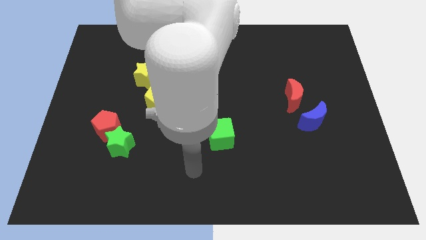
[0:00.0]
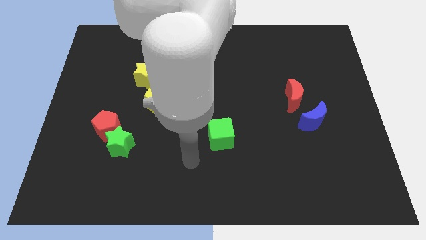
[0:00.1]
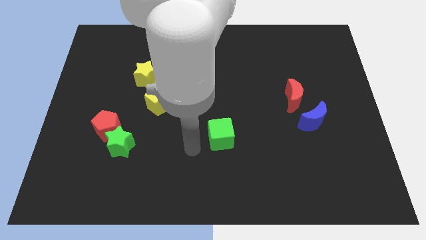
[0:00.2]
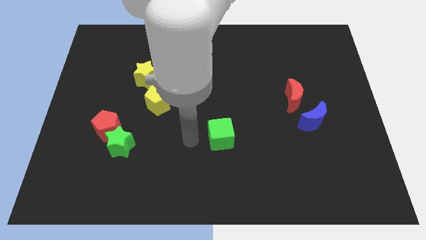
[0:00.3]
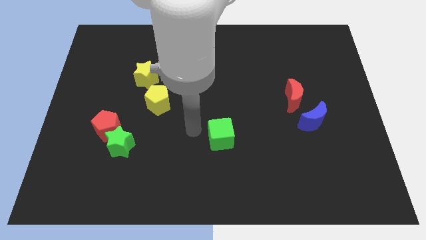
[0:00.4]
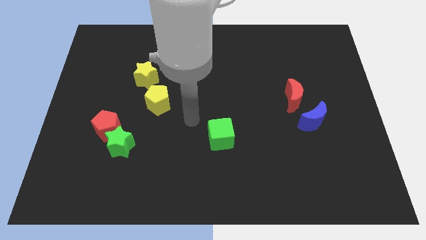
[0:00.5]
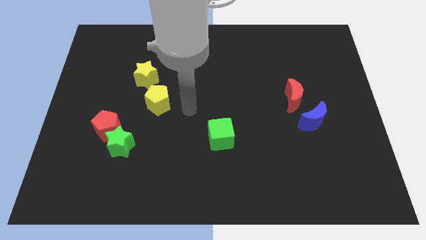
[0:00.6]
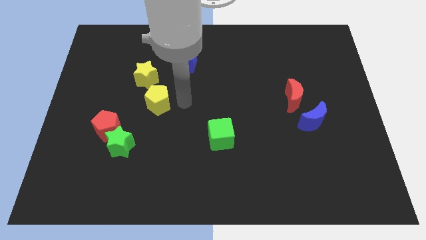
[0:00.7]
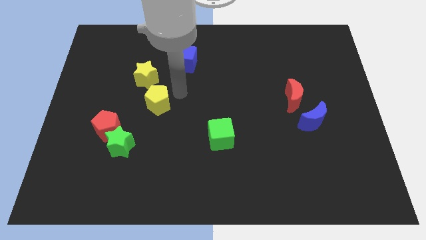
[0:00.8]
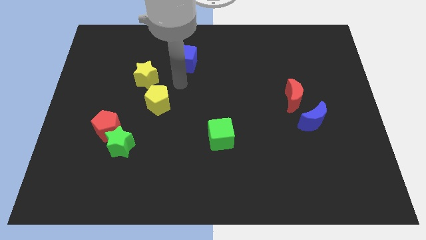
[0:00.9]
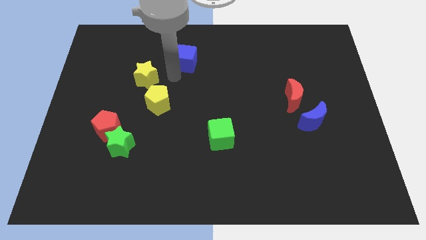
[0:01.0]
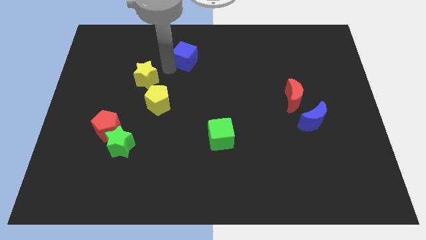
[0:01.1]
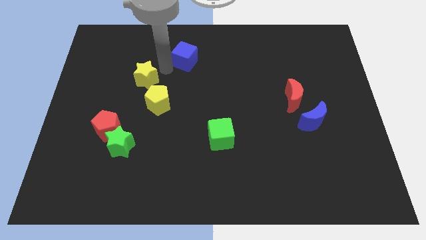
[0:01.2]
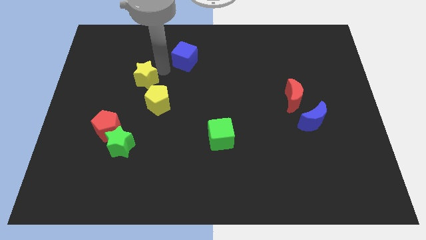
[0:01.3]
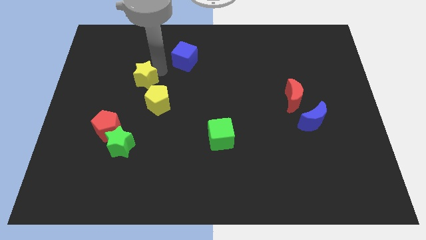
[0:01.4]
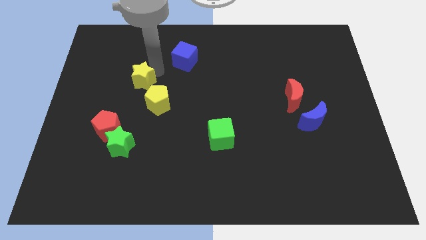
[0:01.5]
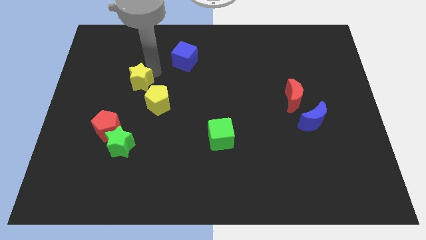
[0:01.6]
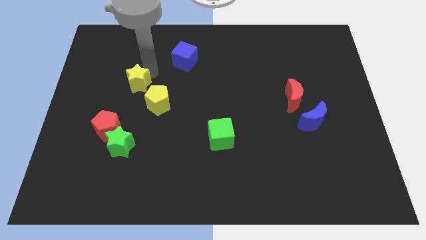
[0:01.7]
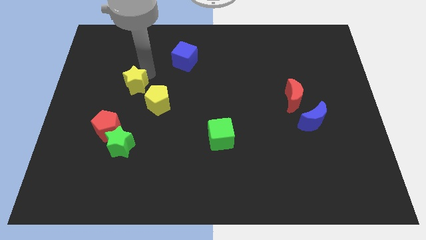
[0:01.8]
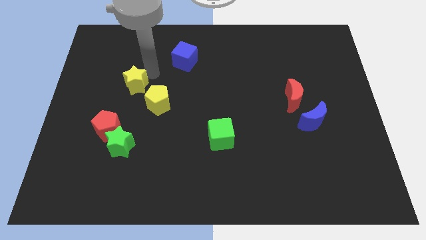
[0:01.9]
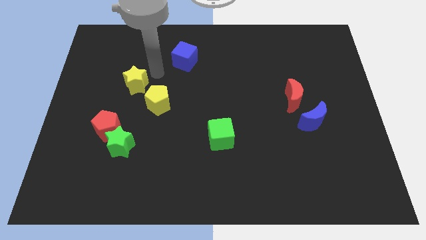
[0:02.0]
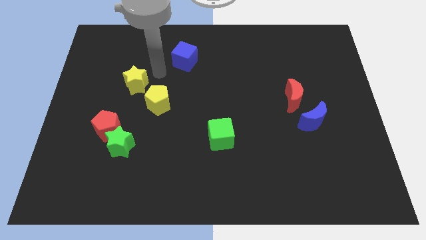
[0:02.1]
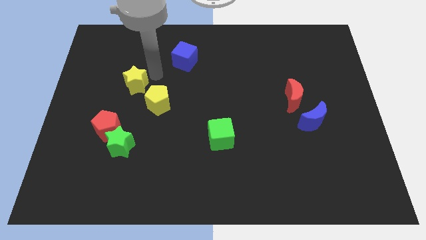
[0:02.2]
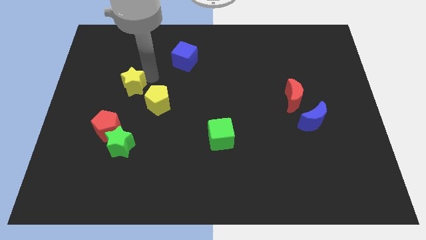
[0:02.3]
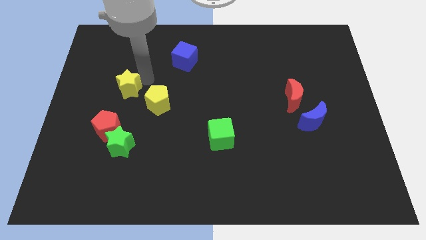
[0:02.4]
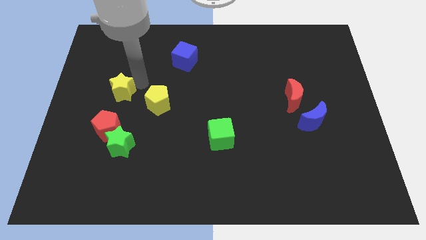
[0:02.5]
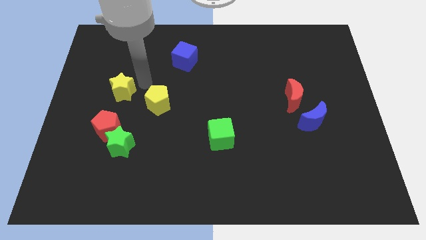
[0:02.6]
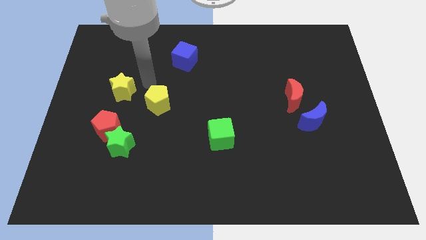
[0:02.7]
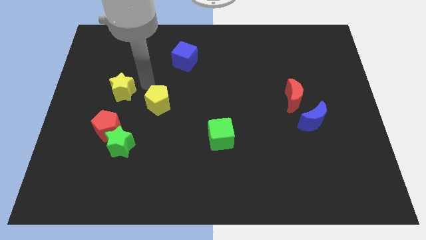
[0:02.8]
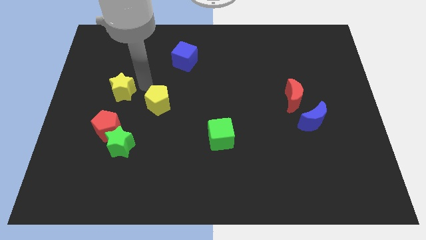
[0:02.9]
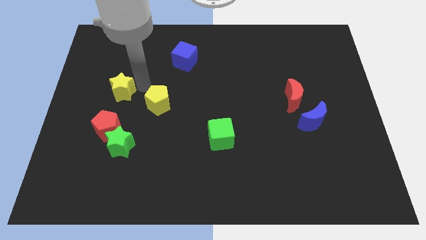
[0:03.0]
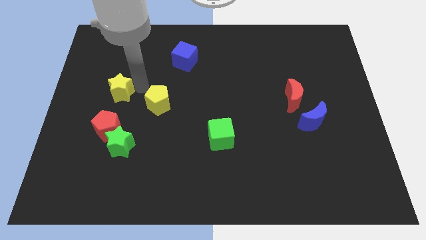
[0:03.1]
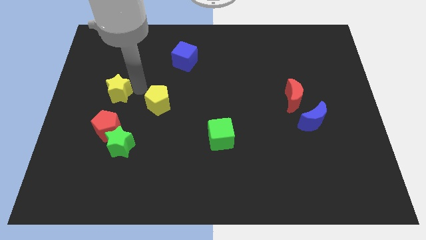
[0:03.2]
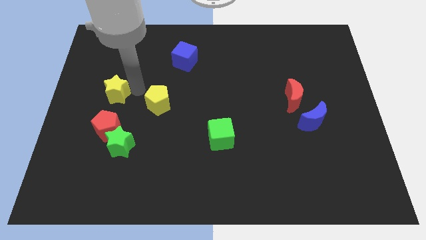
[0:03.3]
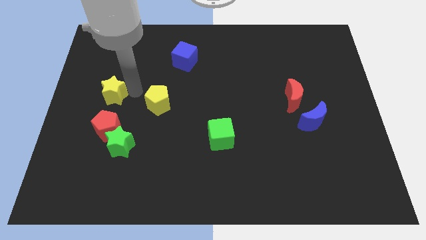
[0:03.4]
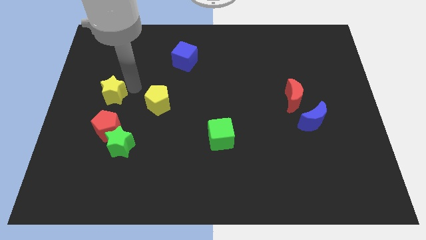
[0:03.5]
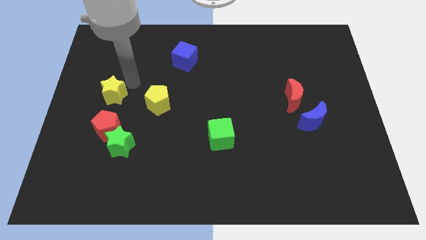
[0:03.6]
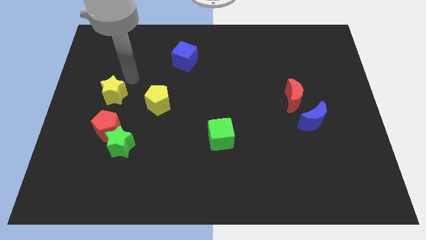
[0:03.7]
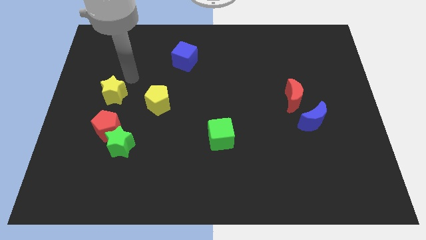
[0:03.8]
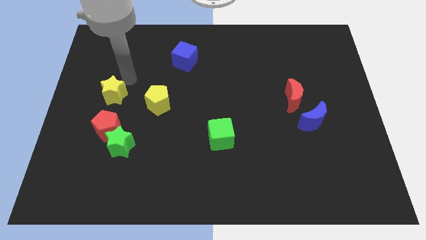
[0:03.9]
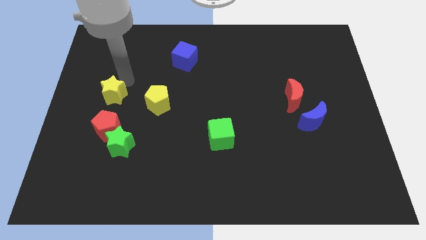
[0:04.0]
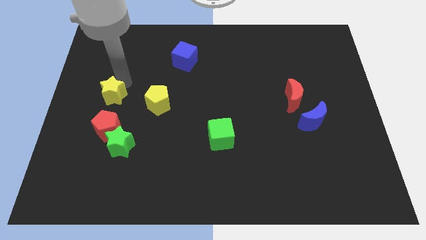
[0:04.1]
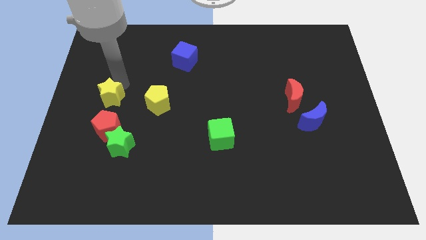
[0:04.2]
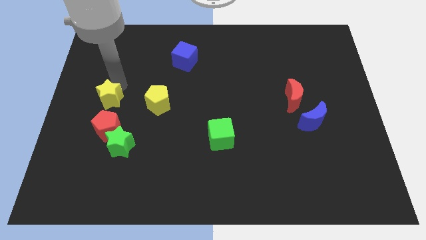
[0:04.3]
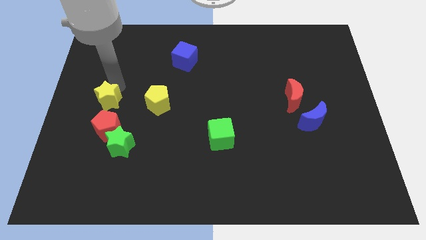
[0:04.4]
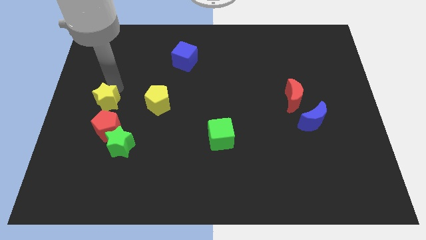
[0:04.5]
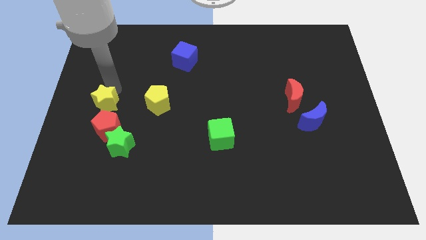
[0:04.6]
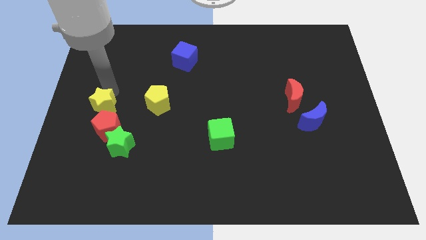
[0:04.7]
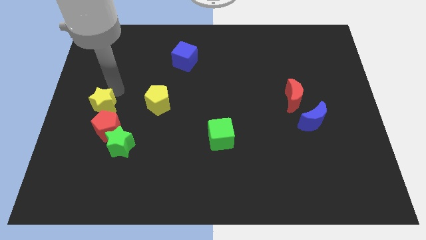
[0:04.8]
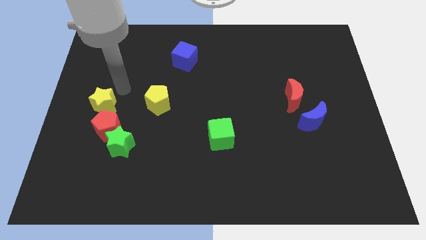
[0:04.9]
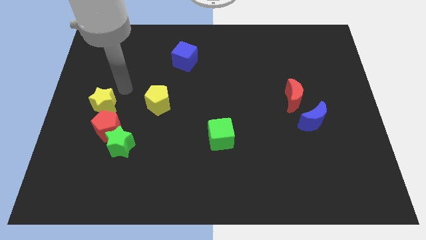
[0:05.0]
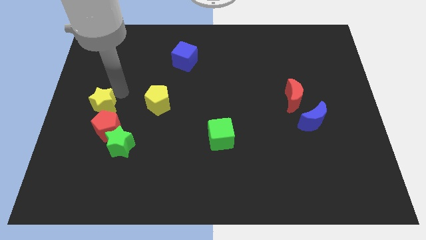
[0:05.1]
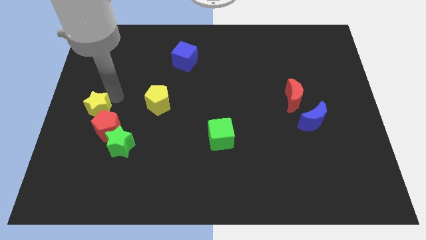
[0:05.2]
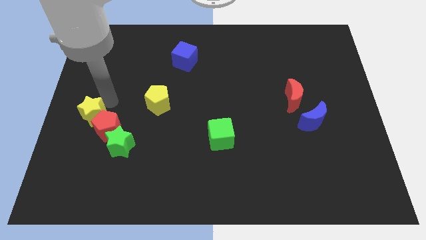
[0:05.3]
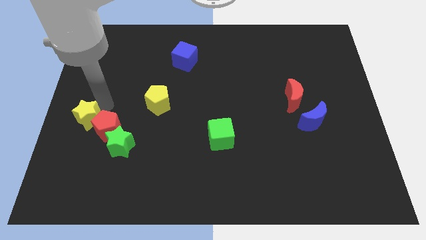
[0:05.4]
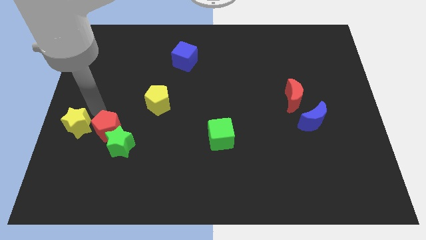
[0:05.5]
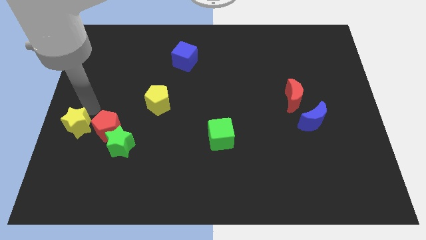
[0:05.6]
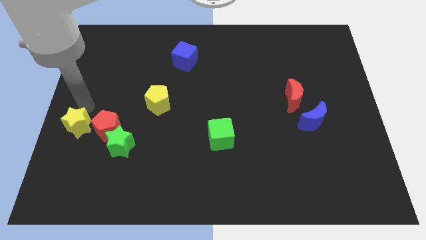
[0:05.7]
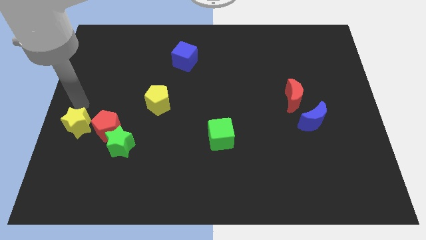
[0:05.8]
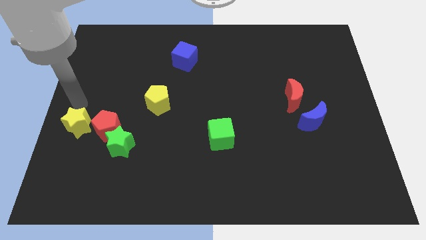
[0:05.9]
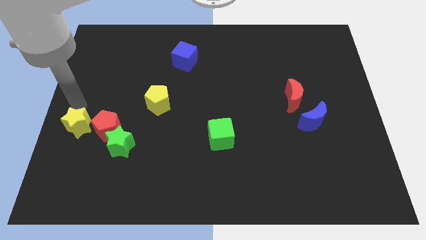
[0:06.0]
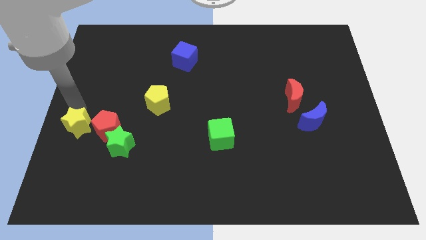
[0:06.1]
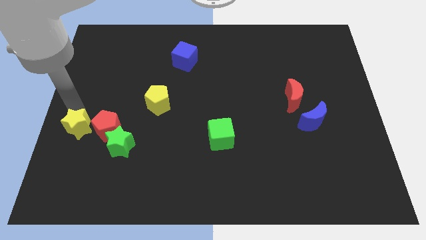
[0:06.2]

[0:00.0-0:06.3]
slide the yellow star to the bottom left of the red pentagon
